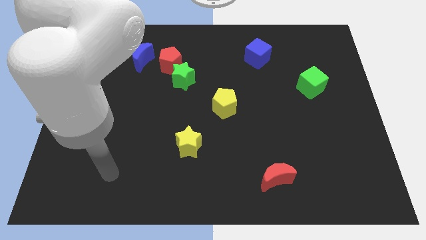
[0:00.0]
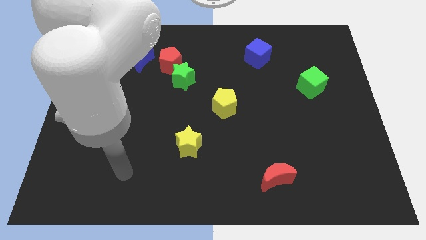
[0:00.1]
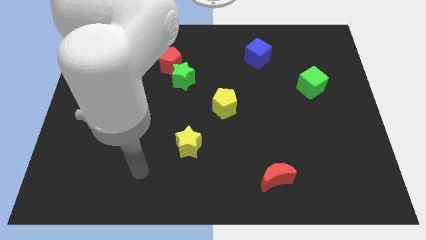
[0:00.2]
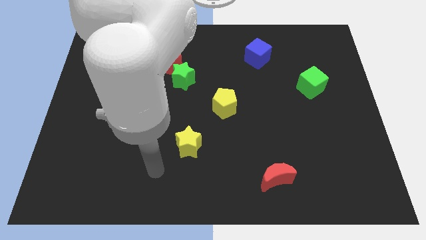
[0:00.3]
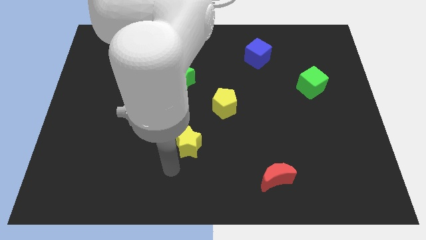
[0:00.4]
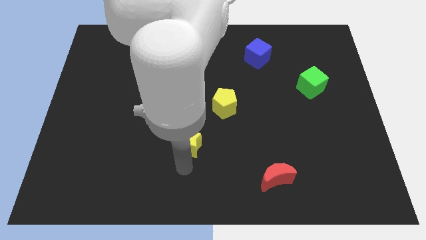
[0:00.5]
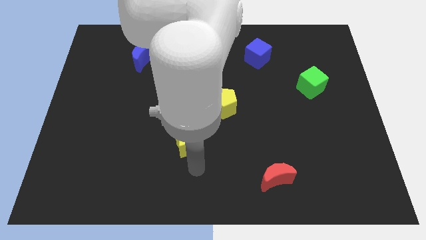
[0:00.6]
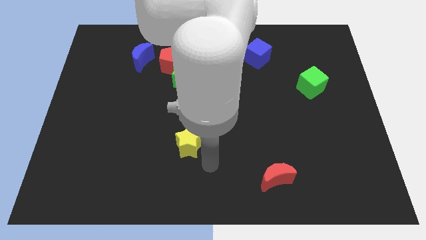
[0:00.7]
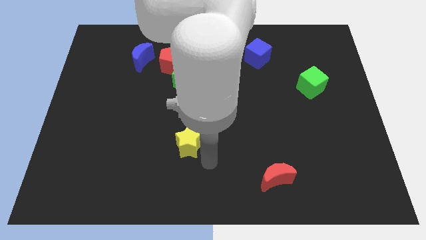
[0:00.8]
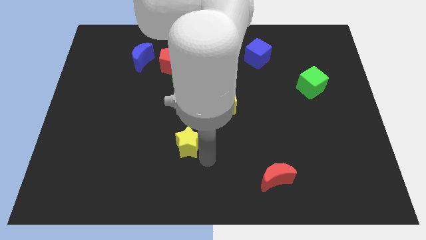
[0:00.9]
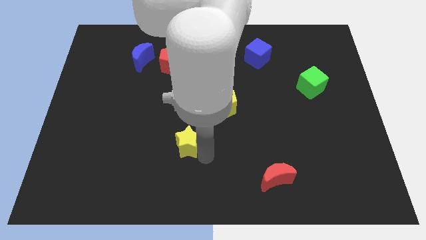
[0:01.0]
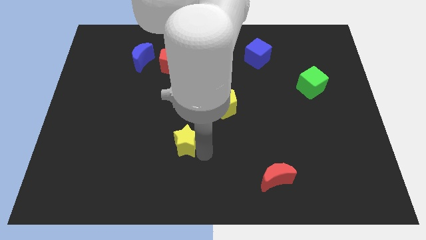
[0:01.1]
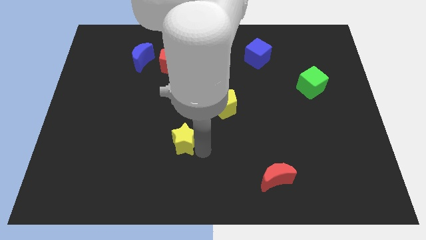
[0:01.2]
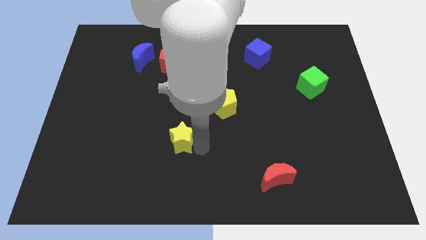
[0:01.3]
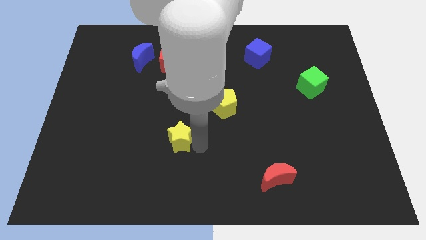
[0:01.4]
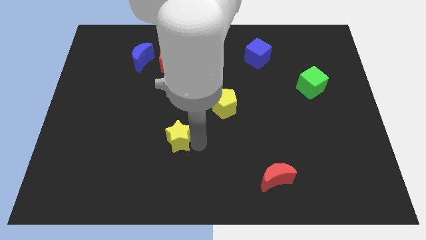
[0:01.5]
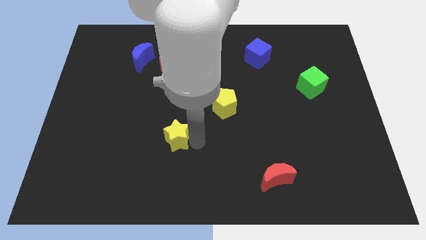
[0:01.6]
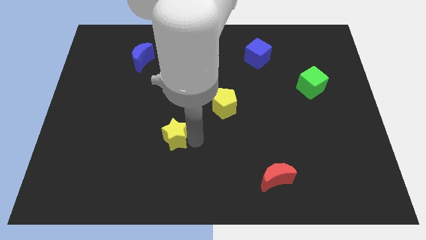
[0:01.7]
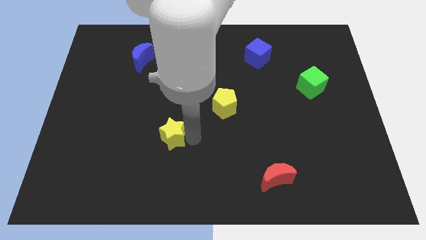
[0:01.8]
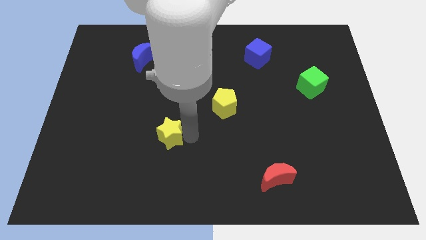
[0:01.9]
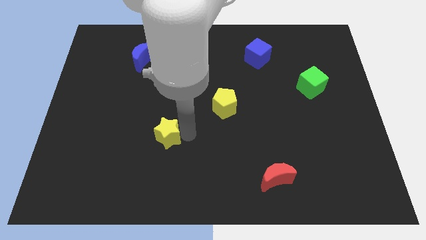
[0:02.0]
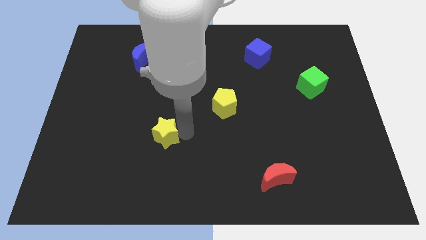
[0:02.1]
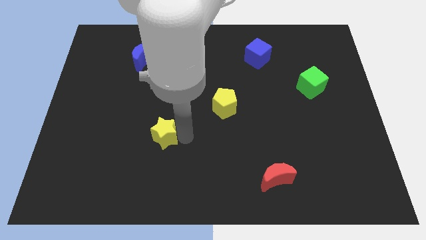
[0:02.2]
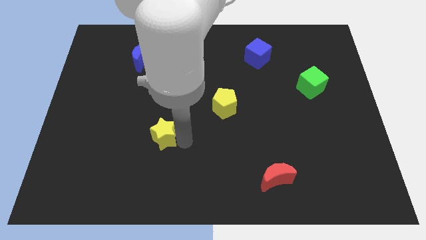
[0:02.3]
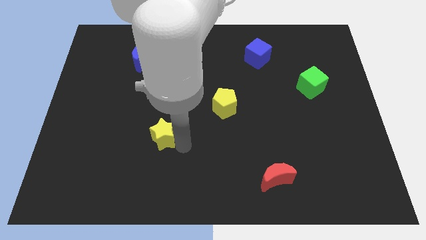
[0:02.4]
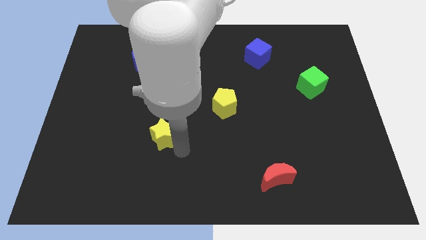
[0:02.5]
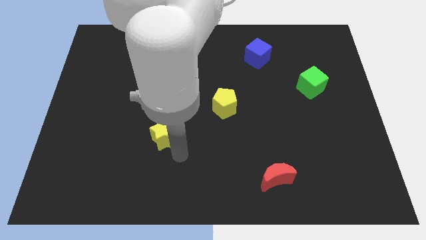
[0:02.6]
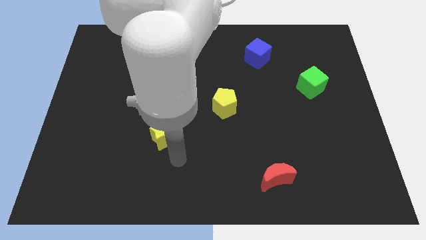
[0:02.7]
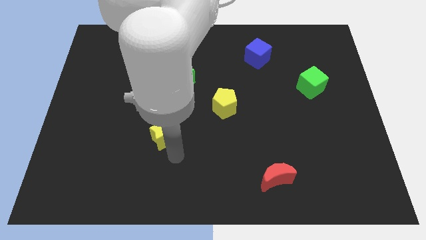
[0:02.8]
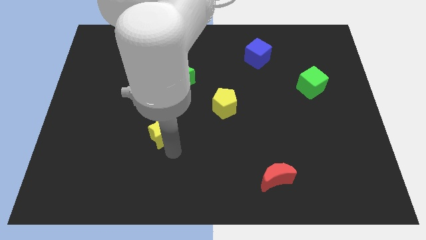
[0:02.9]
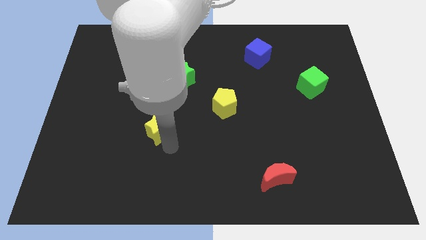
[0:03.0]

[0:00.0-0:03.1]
slightly slide the yellow star up and left diagonally

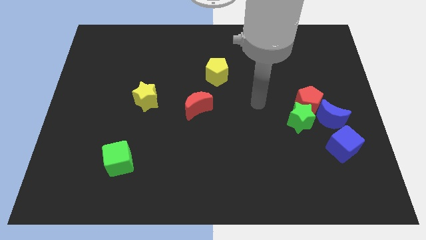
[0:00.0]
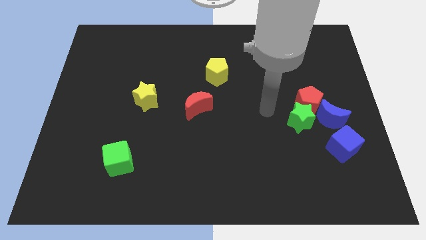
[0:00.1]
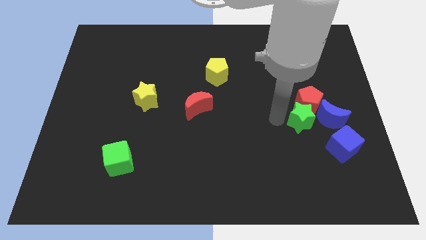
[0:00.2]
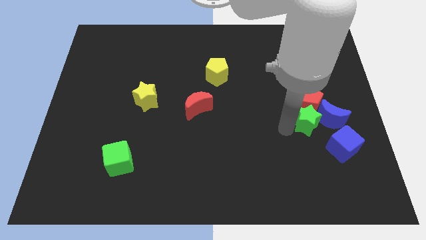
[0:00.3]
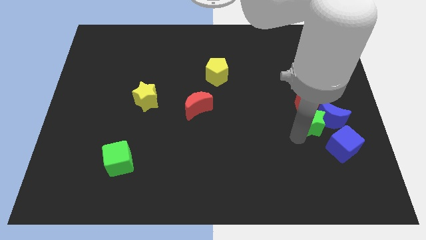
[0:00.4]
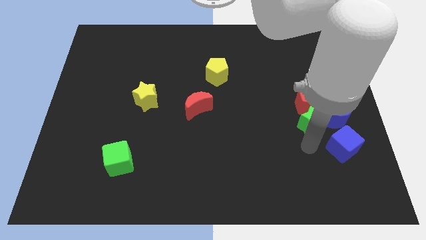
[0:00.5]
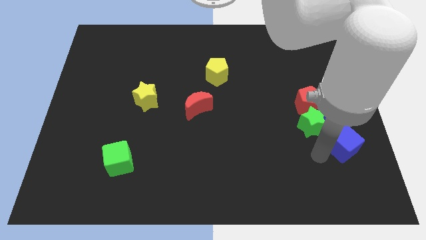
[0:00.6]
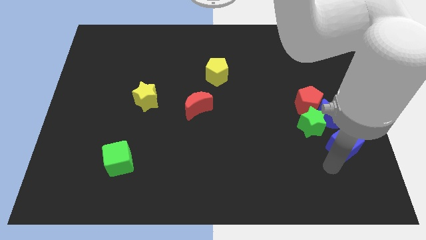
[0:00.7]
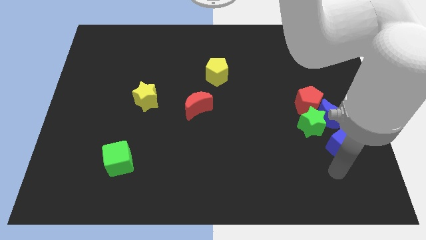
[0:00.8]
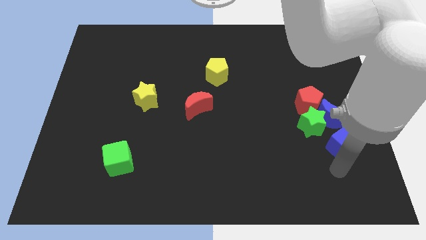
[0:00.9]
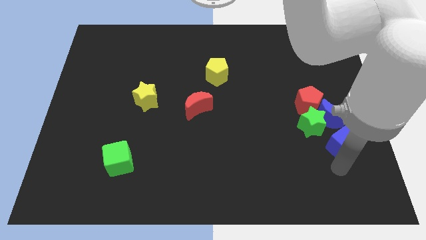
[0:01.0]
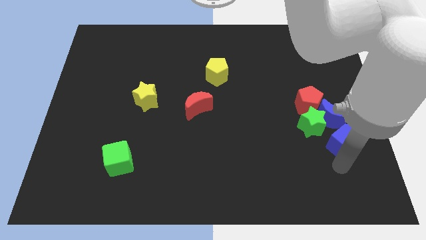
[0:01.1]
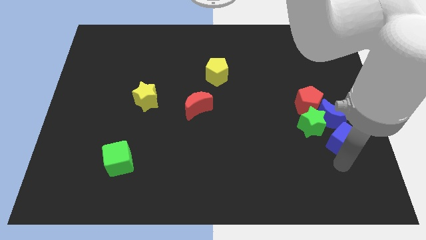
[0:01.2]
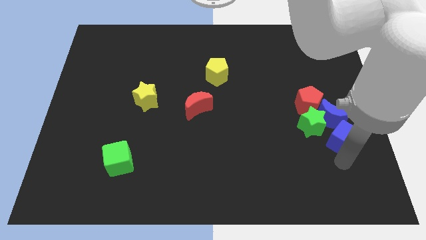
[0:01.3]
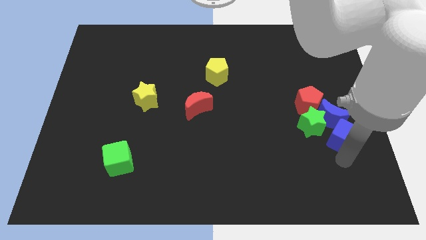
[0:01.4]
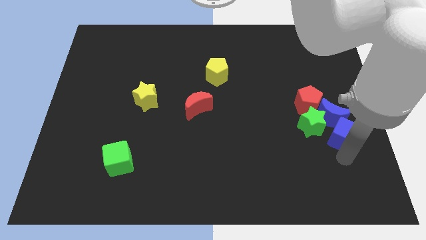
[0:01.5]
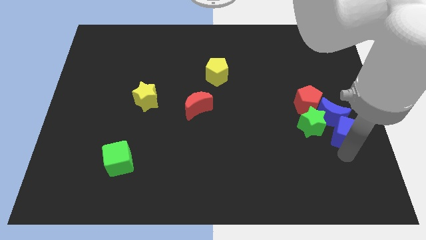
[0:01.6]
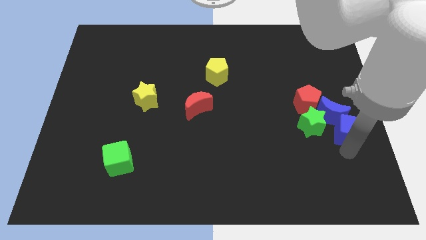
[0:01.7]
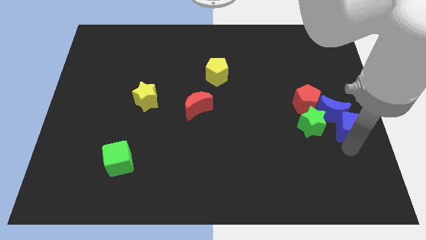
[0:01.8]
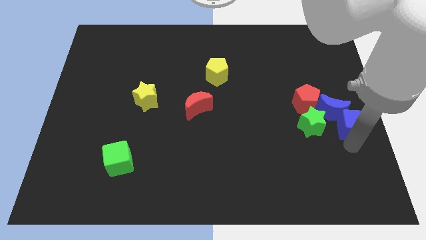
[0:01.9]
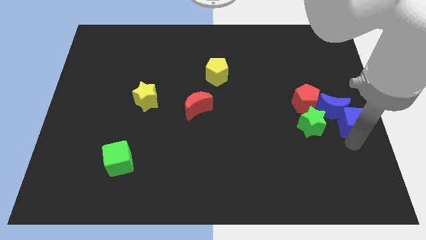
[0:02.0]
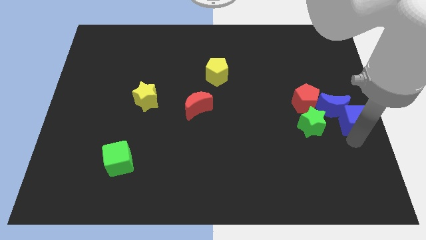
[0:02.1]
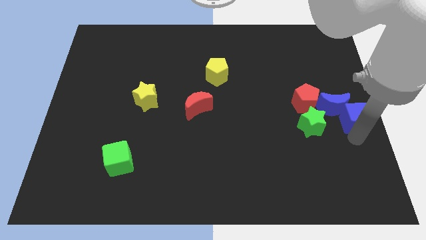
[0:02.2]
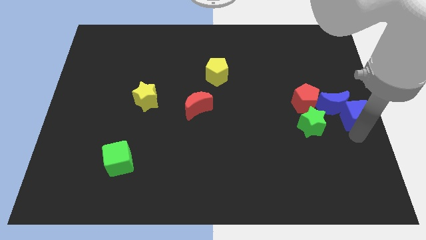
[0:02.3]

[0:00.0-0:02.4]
move the blue cube upwards somewhat

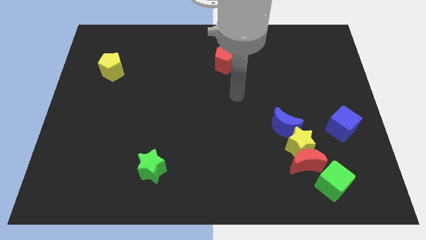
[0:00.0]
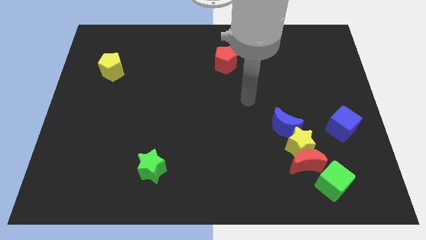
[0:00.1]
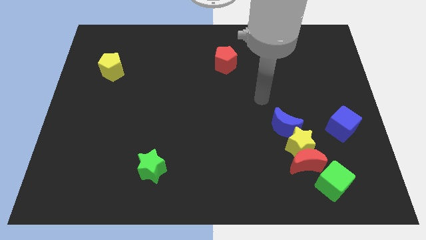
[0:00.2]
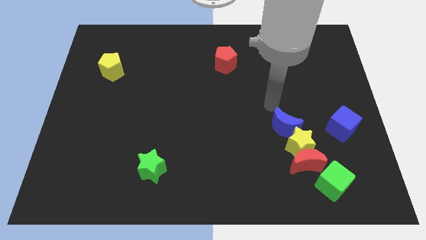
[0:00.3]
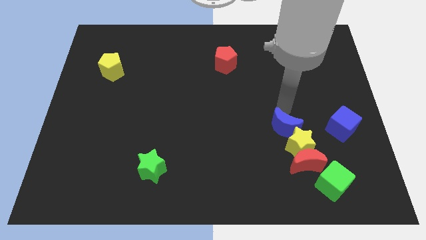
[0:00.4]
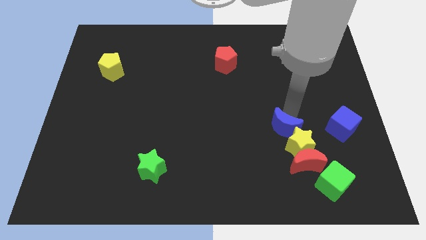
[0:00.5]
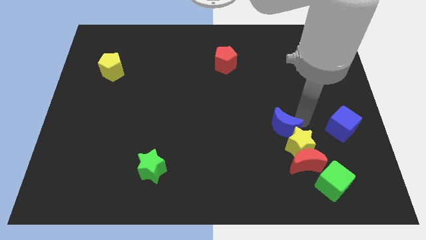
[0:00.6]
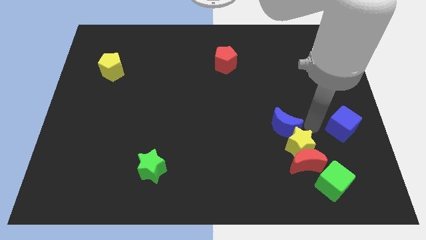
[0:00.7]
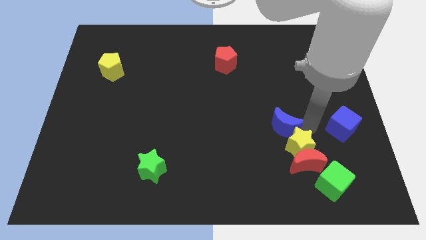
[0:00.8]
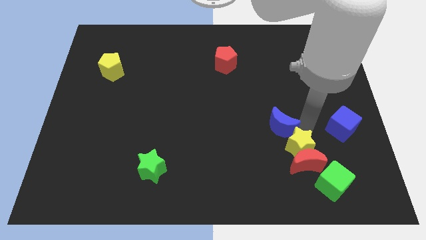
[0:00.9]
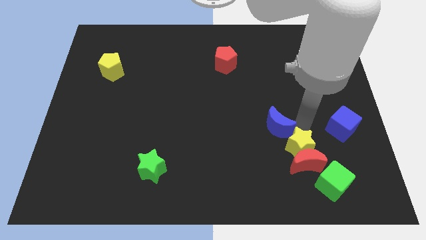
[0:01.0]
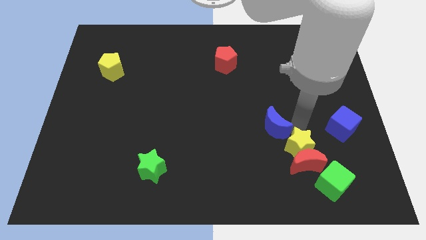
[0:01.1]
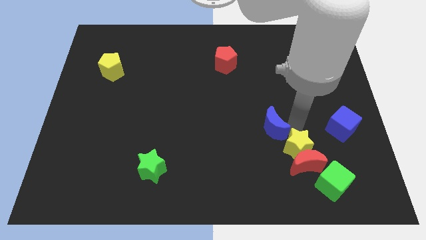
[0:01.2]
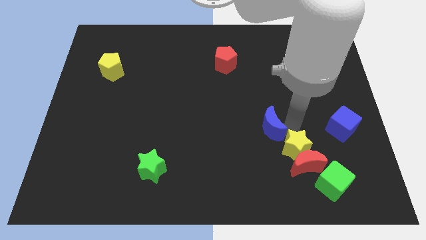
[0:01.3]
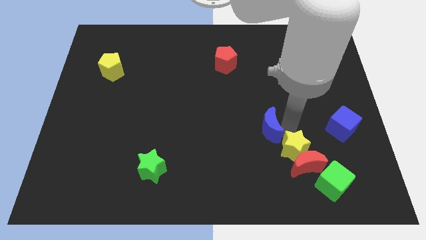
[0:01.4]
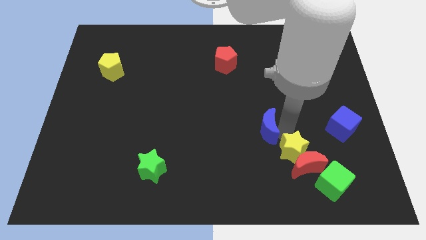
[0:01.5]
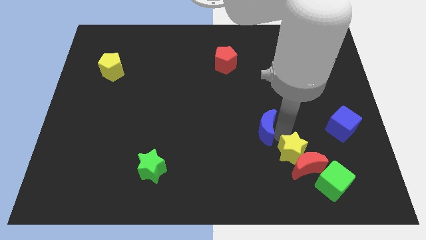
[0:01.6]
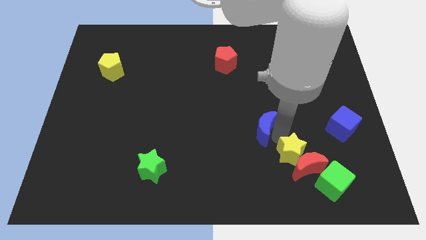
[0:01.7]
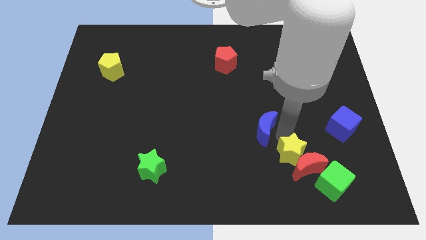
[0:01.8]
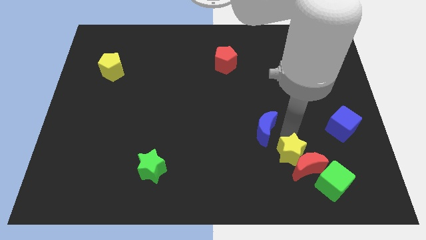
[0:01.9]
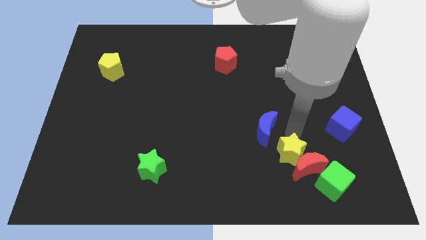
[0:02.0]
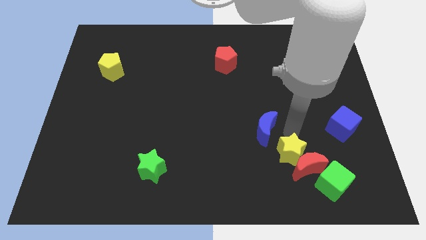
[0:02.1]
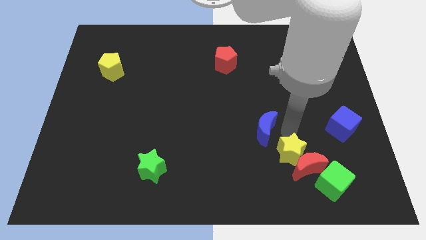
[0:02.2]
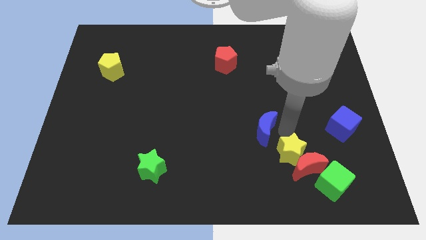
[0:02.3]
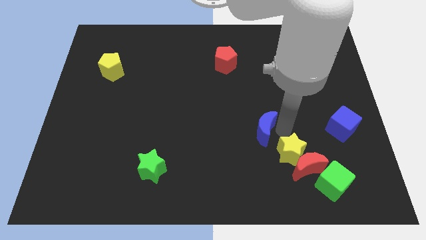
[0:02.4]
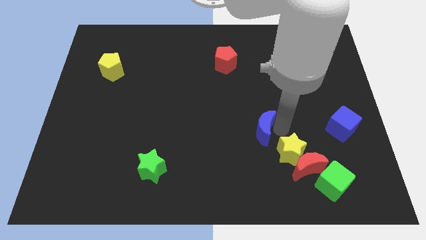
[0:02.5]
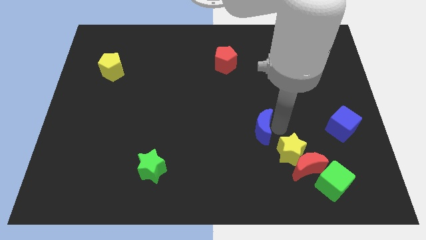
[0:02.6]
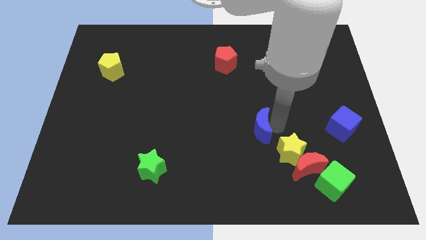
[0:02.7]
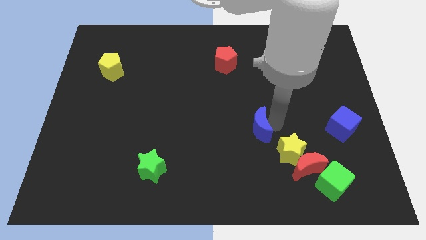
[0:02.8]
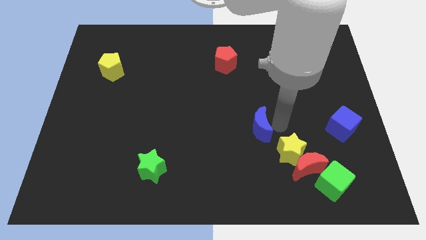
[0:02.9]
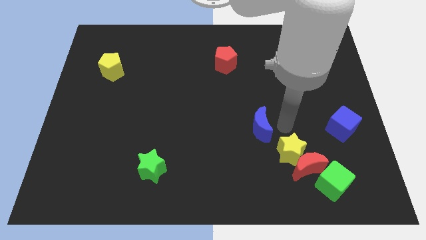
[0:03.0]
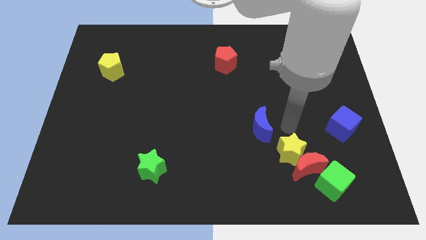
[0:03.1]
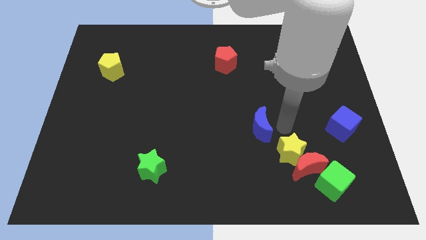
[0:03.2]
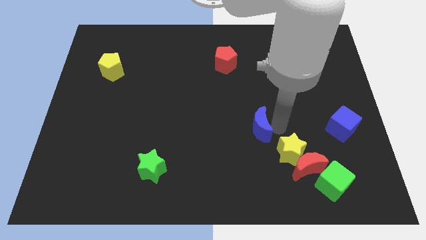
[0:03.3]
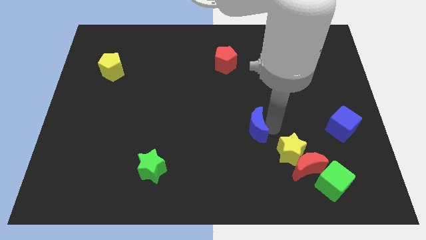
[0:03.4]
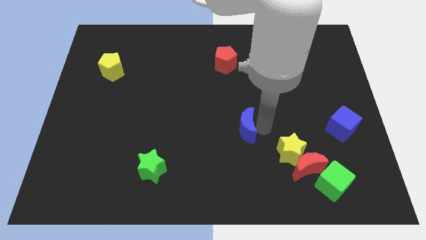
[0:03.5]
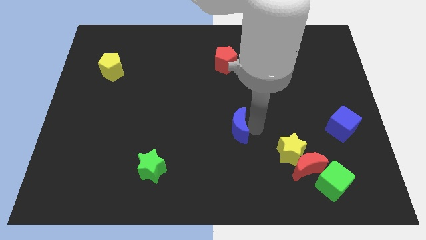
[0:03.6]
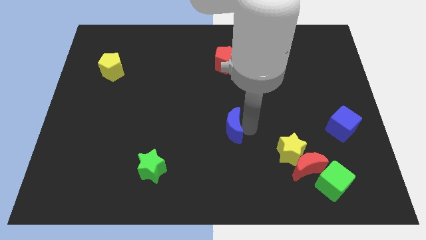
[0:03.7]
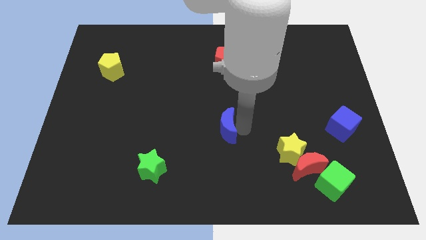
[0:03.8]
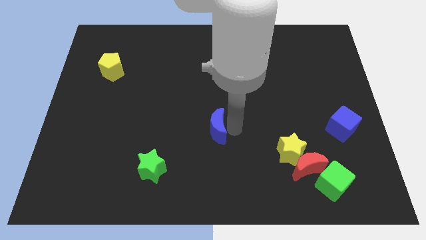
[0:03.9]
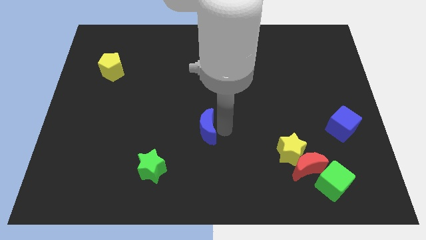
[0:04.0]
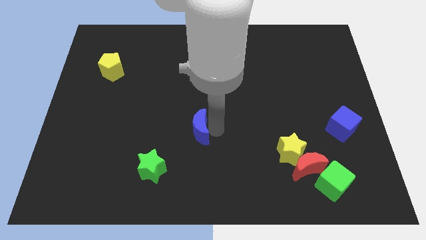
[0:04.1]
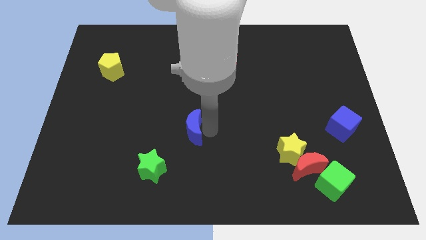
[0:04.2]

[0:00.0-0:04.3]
slide the blue moon to the left
